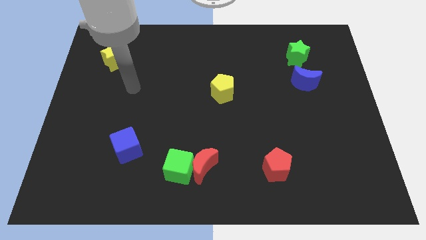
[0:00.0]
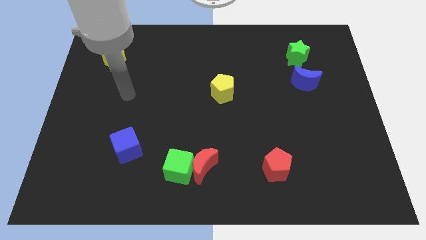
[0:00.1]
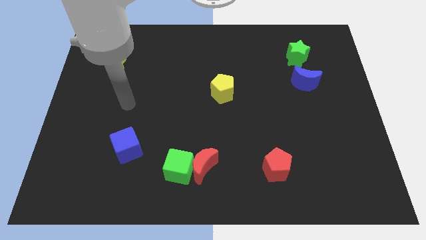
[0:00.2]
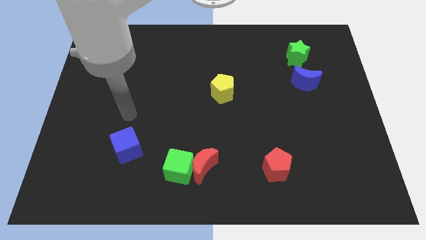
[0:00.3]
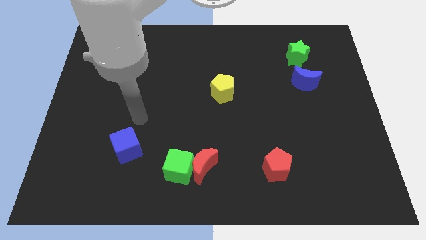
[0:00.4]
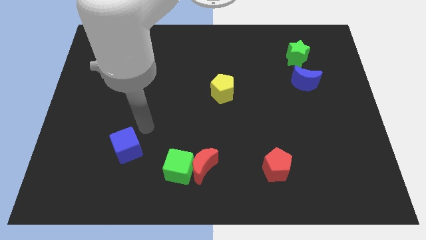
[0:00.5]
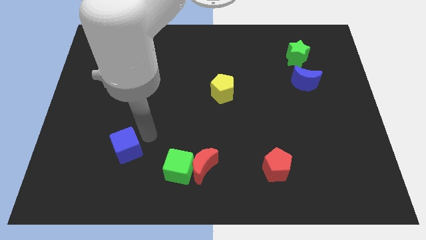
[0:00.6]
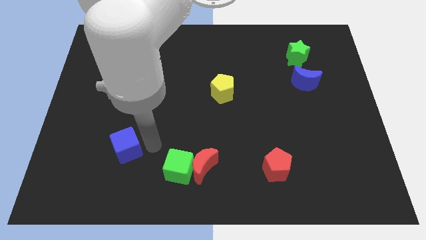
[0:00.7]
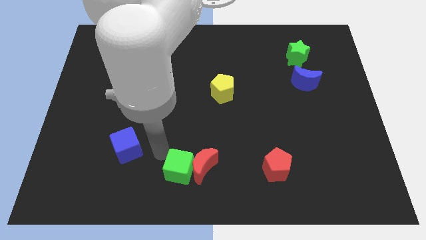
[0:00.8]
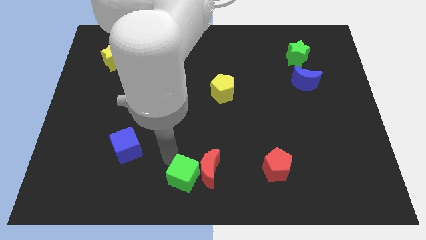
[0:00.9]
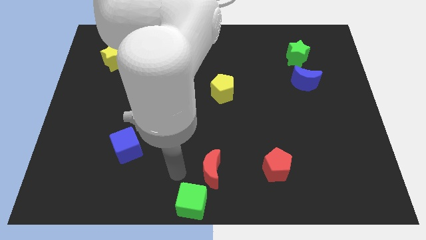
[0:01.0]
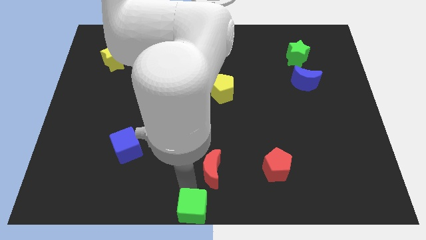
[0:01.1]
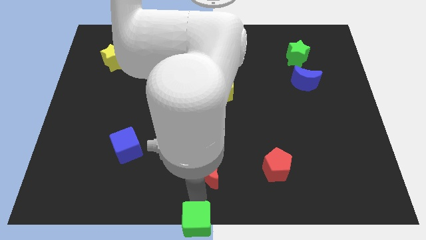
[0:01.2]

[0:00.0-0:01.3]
separate the red moon from the green cube

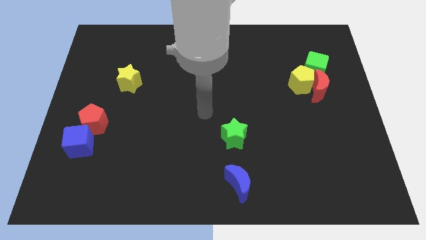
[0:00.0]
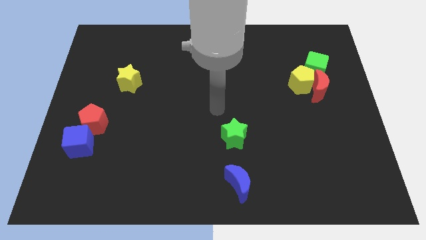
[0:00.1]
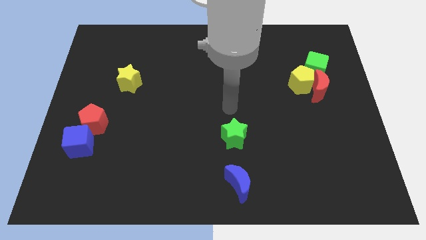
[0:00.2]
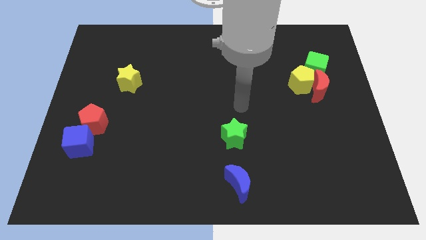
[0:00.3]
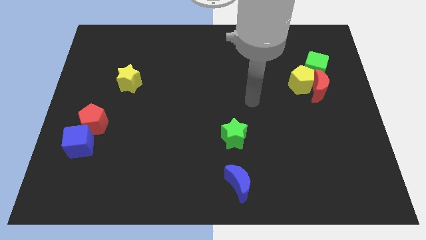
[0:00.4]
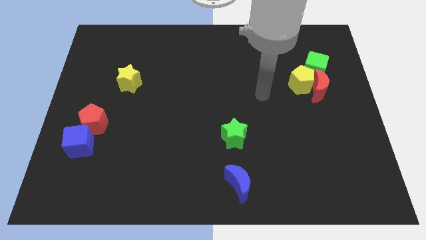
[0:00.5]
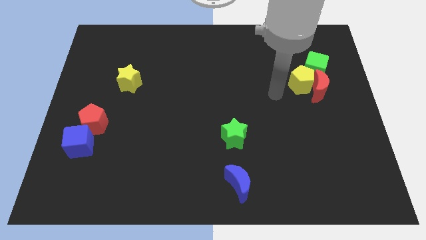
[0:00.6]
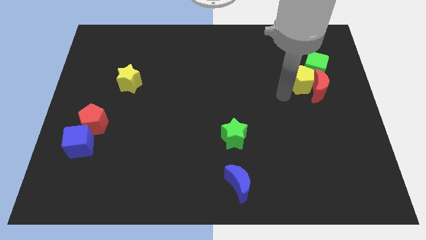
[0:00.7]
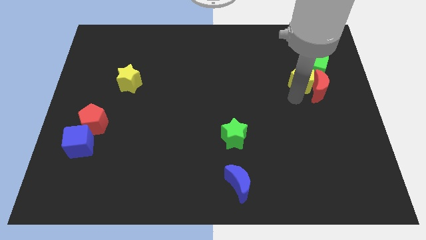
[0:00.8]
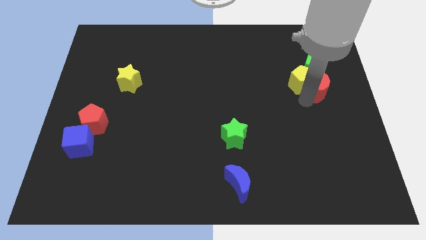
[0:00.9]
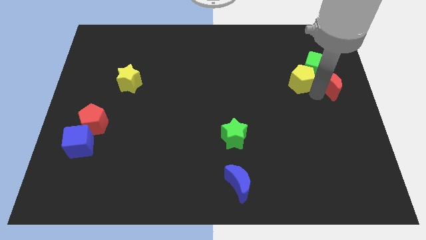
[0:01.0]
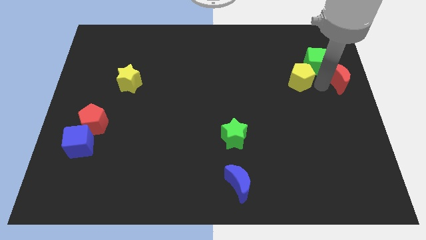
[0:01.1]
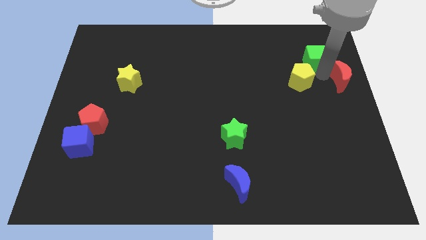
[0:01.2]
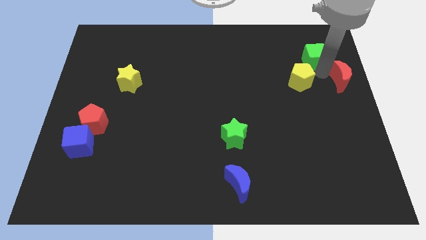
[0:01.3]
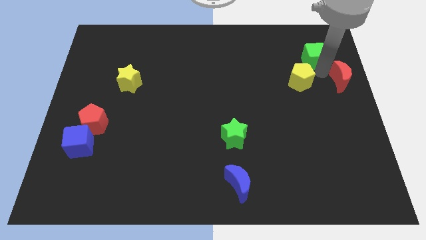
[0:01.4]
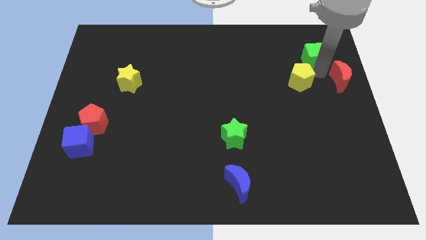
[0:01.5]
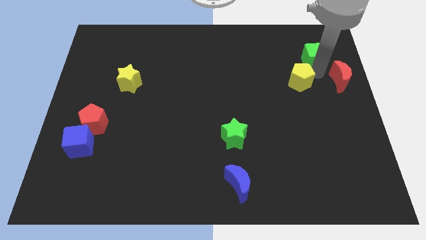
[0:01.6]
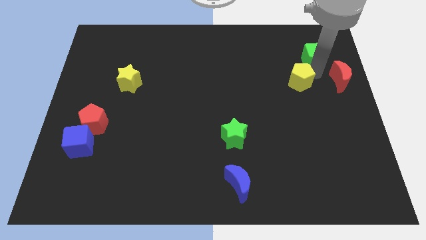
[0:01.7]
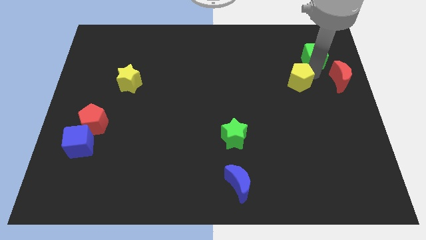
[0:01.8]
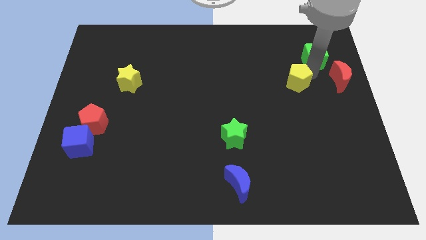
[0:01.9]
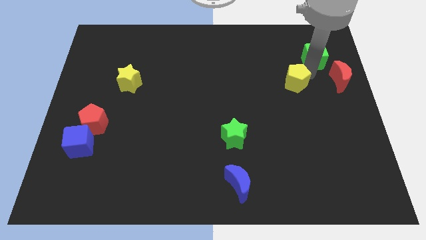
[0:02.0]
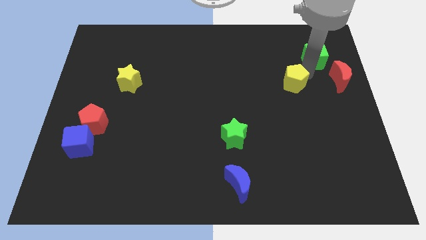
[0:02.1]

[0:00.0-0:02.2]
move the yellow pentagon away from the red moon and green cube

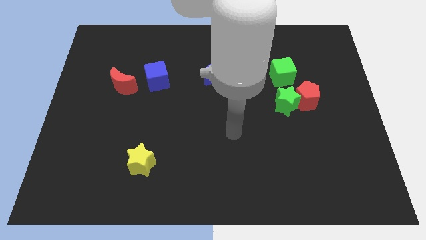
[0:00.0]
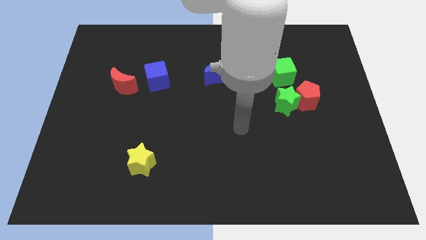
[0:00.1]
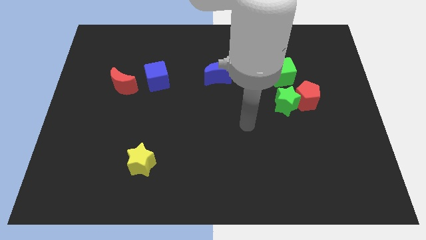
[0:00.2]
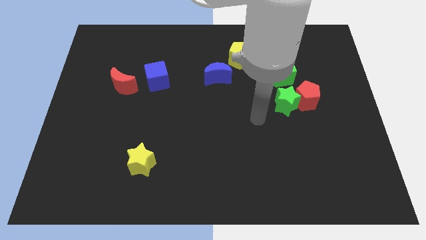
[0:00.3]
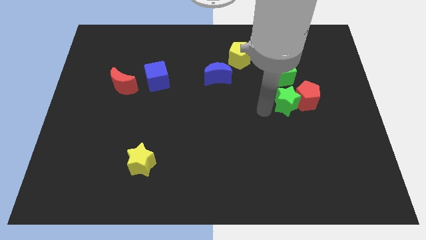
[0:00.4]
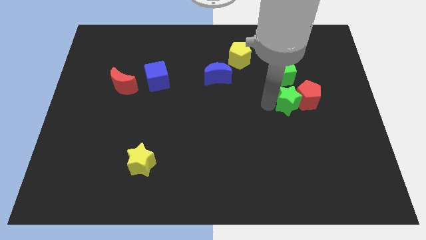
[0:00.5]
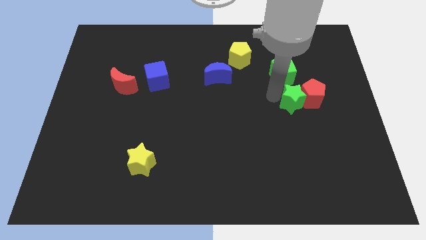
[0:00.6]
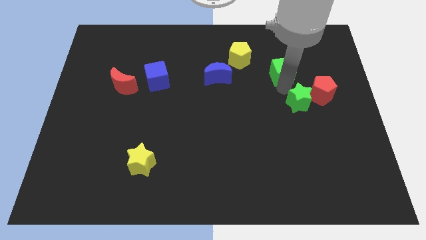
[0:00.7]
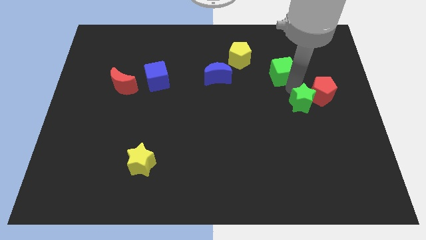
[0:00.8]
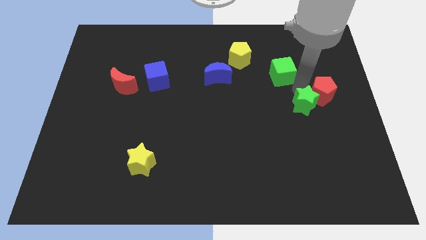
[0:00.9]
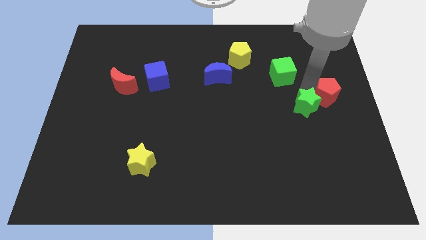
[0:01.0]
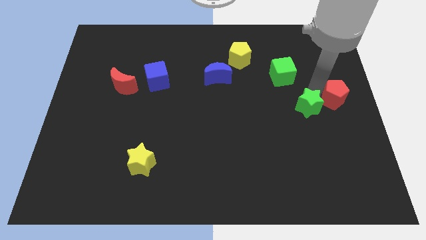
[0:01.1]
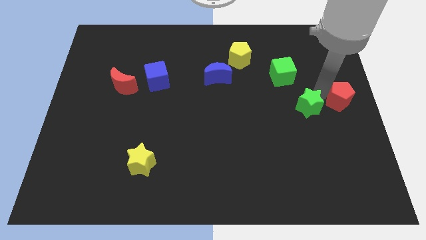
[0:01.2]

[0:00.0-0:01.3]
move the red pentagon away from the green star and green cube

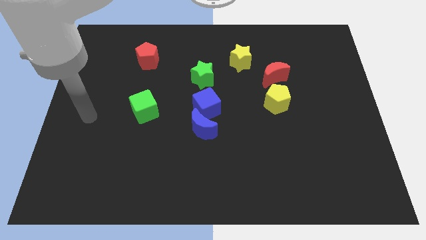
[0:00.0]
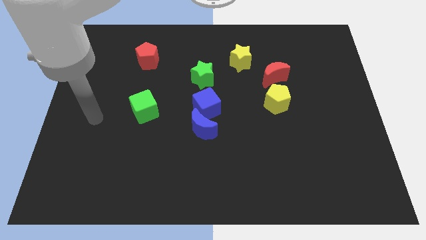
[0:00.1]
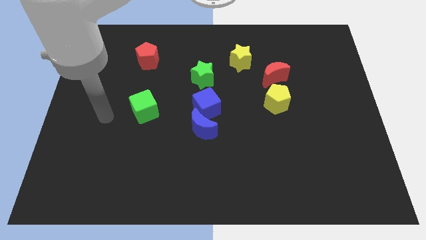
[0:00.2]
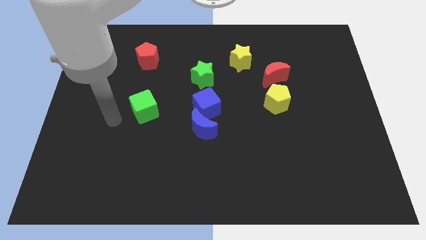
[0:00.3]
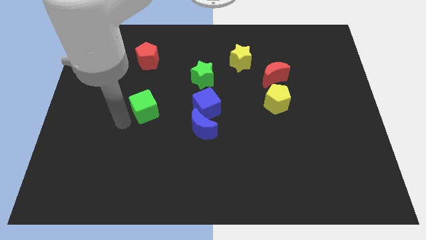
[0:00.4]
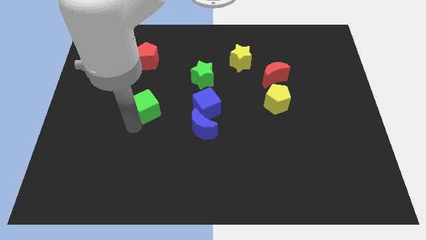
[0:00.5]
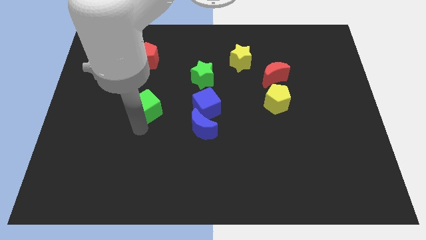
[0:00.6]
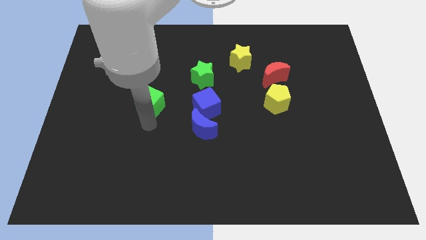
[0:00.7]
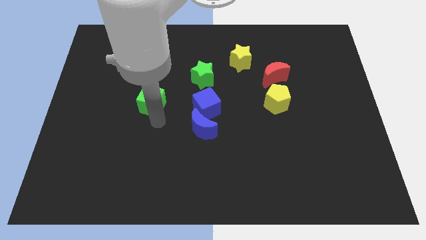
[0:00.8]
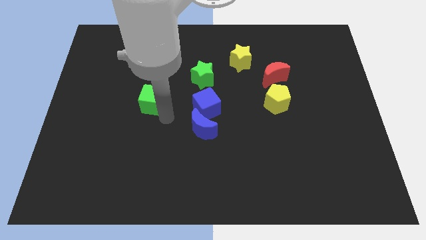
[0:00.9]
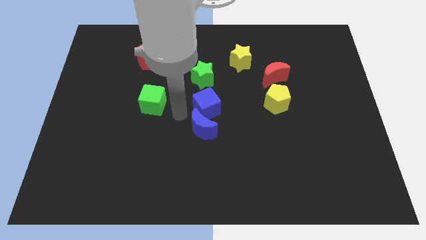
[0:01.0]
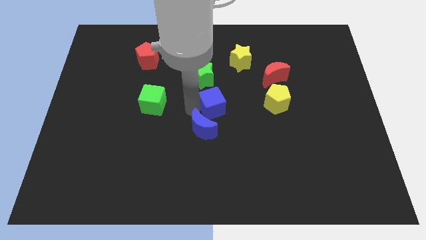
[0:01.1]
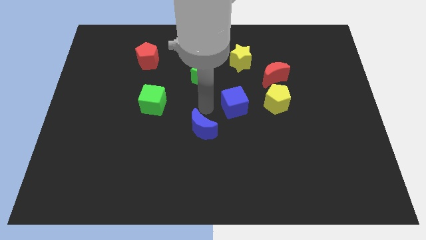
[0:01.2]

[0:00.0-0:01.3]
pull the blue moon apart from the blue cube

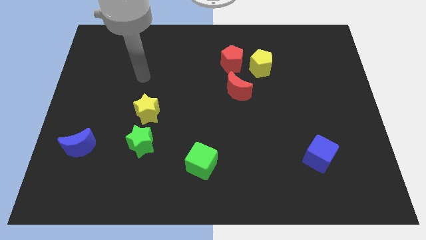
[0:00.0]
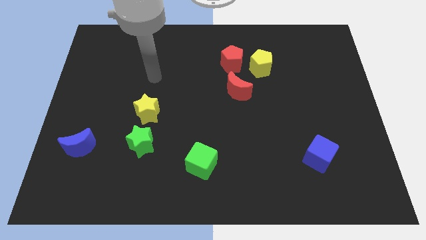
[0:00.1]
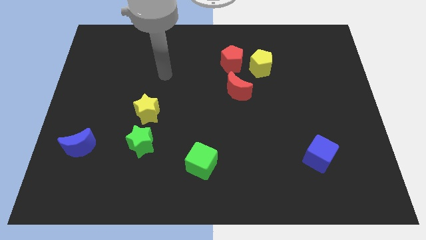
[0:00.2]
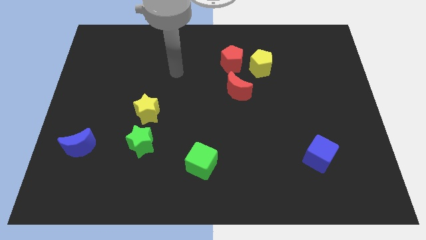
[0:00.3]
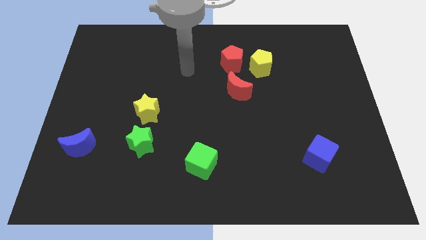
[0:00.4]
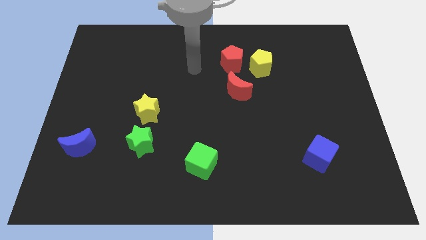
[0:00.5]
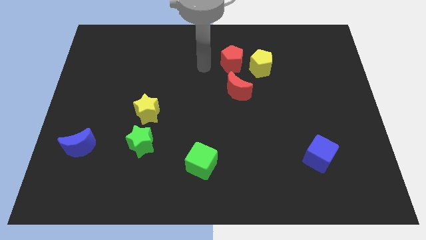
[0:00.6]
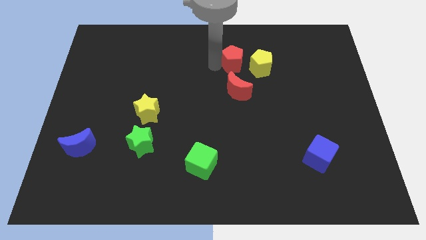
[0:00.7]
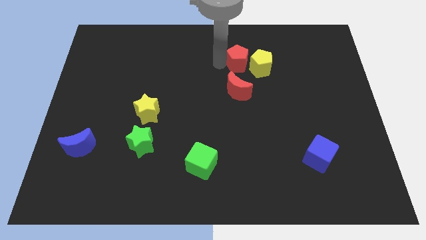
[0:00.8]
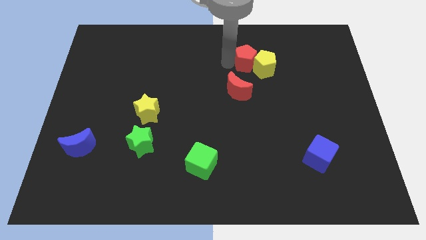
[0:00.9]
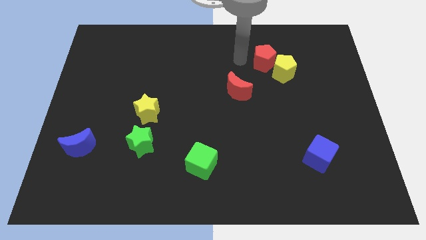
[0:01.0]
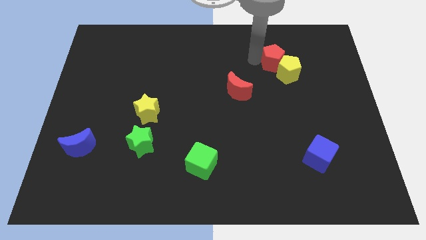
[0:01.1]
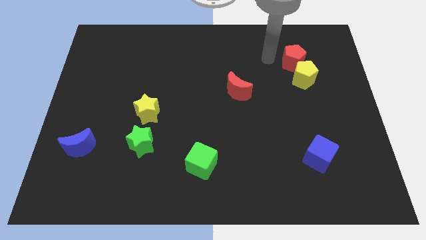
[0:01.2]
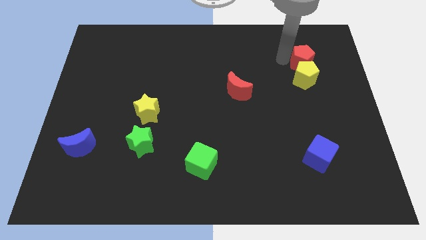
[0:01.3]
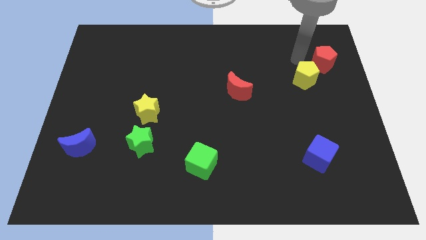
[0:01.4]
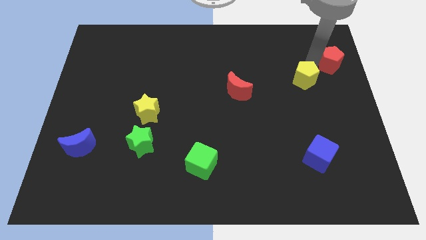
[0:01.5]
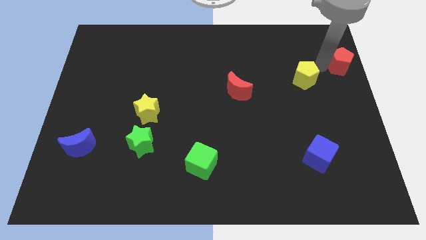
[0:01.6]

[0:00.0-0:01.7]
pull the yellow pentagon apart from the red pentagon

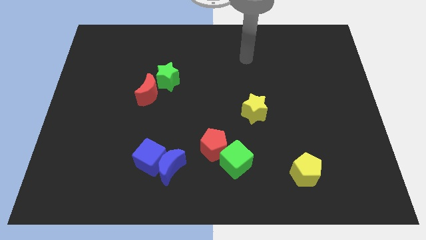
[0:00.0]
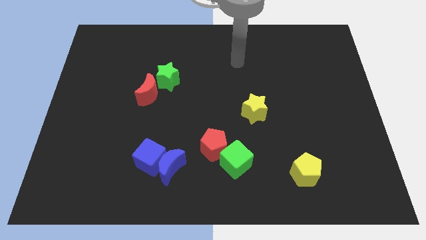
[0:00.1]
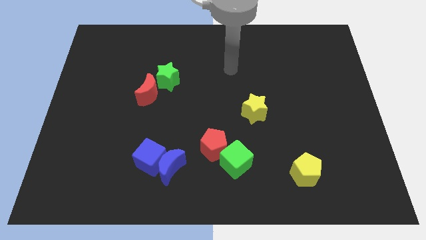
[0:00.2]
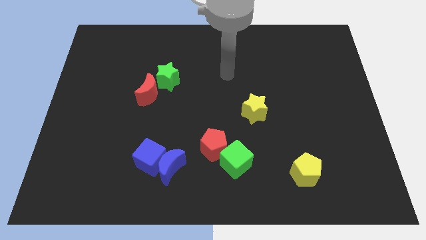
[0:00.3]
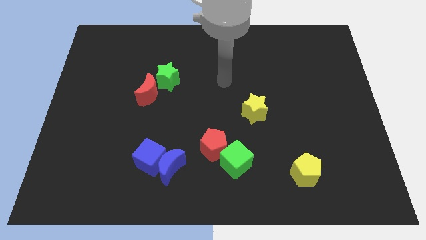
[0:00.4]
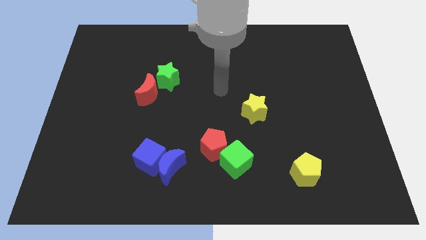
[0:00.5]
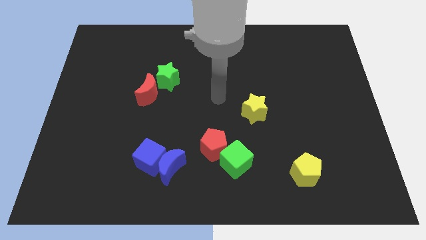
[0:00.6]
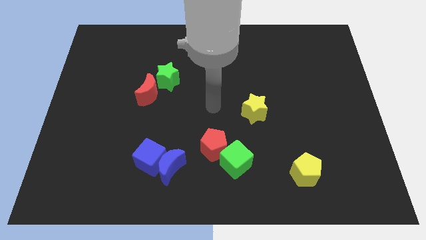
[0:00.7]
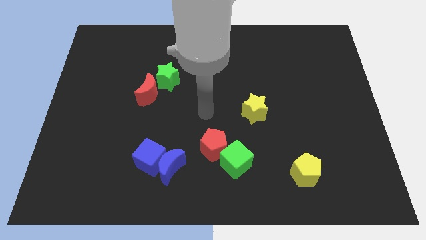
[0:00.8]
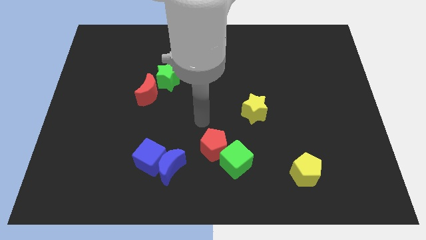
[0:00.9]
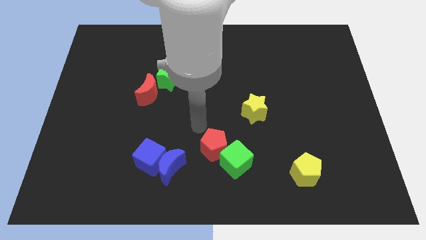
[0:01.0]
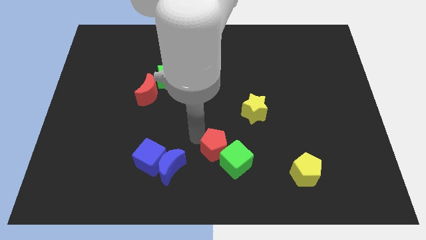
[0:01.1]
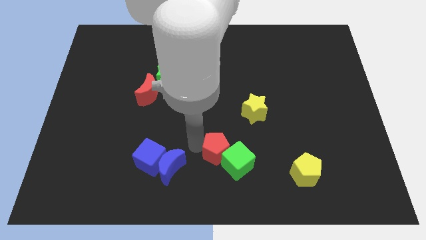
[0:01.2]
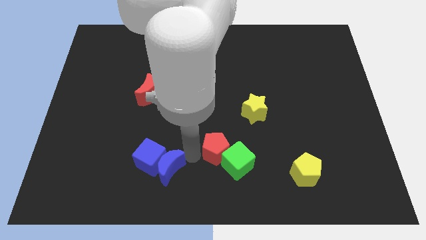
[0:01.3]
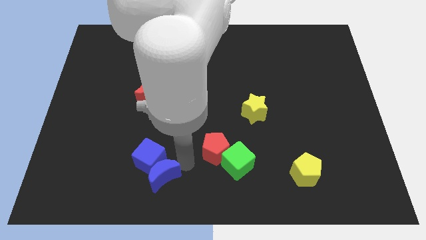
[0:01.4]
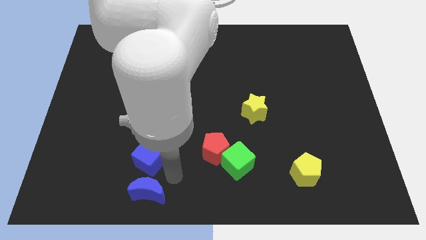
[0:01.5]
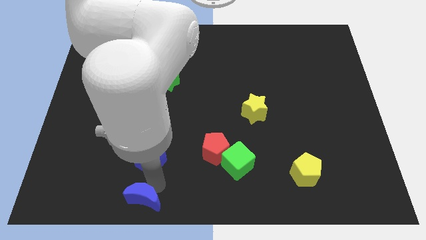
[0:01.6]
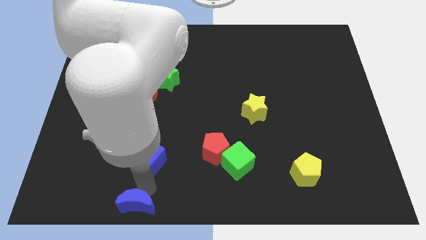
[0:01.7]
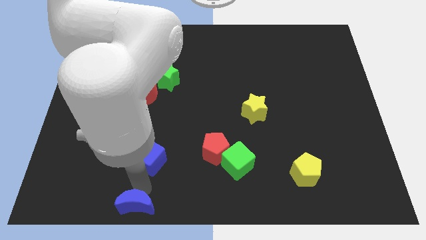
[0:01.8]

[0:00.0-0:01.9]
move the blue cube away from the blue moon
